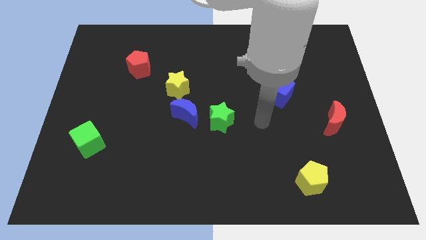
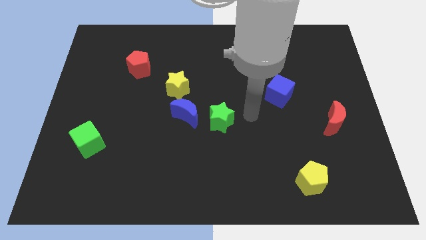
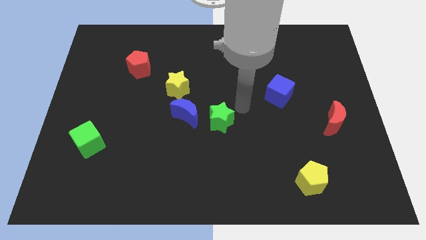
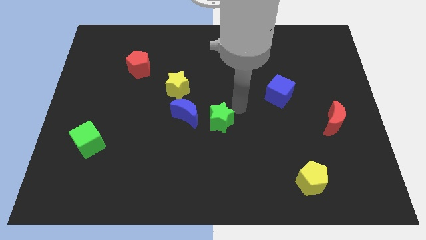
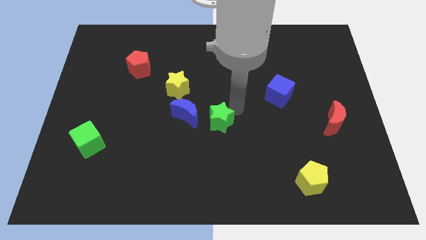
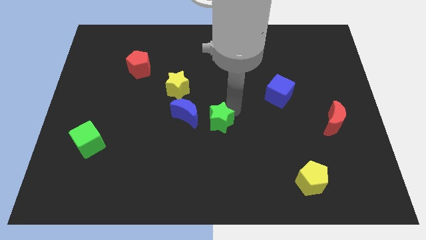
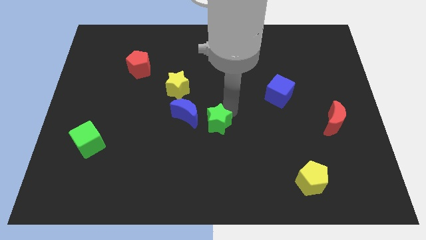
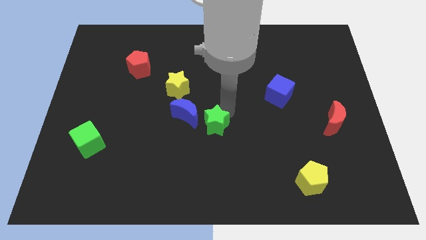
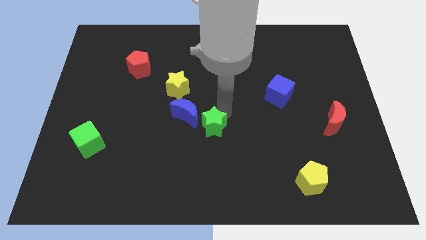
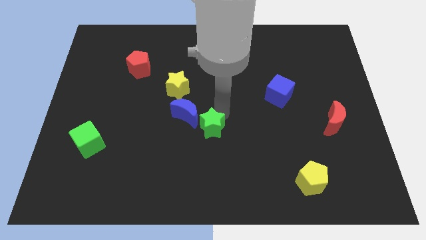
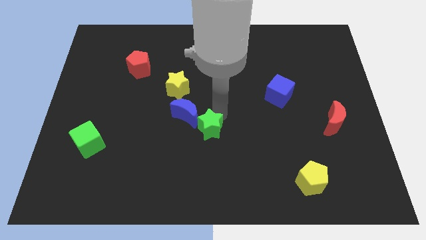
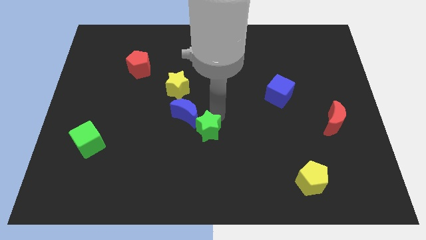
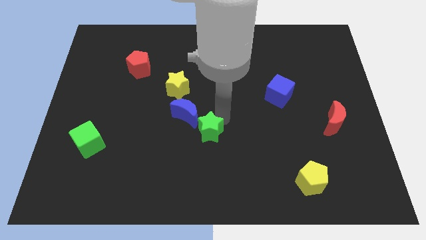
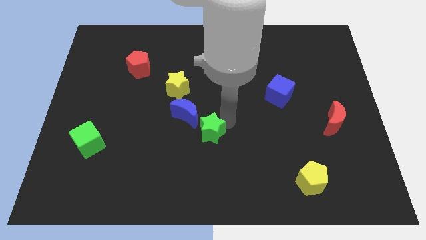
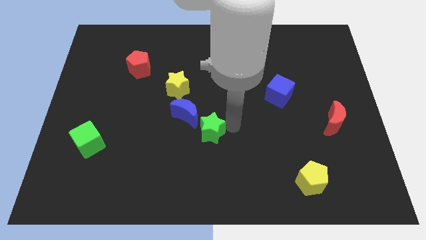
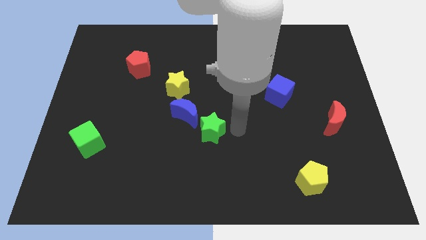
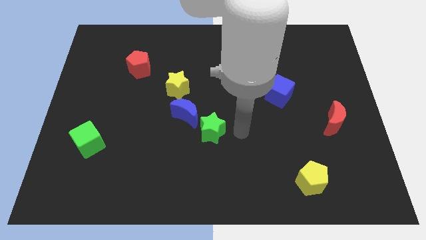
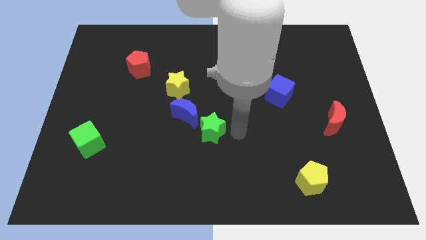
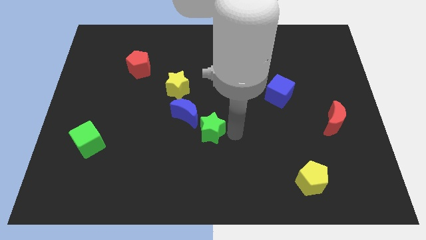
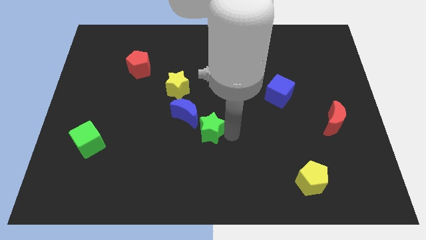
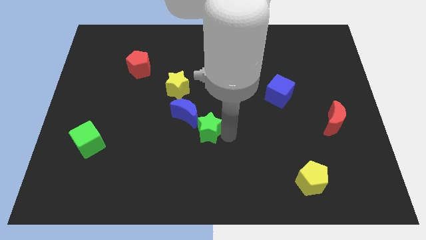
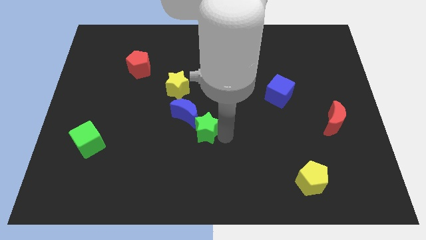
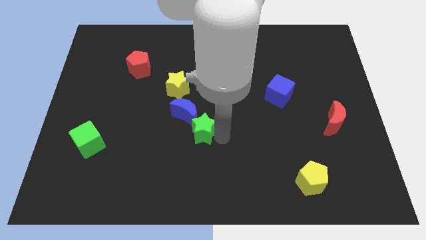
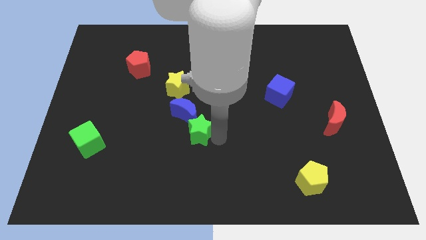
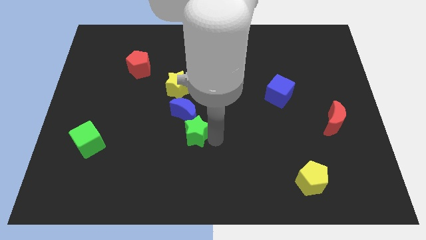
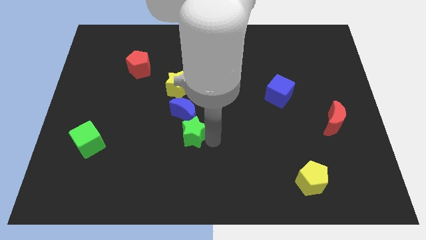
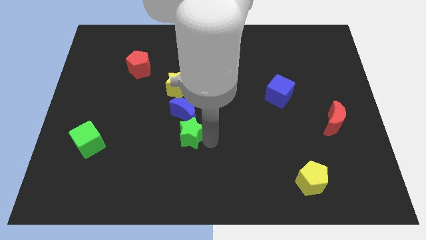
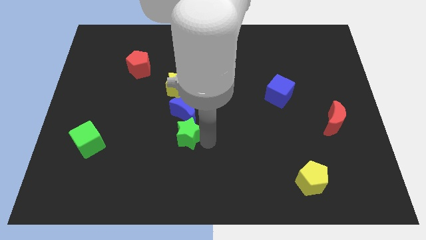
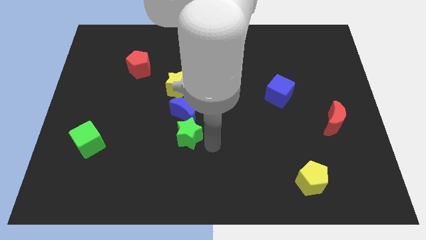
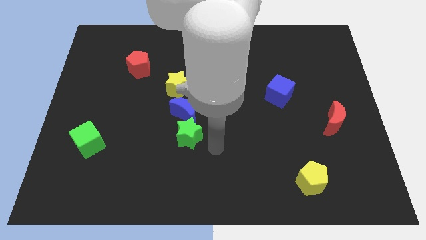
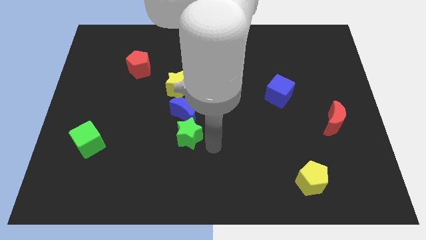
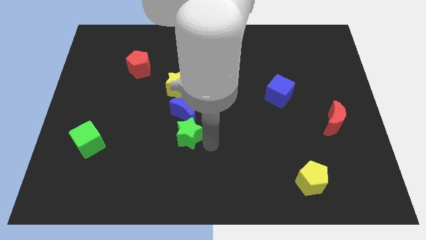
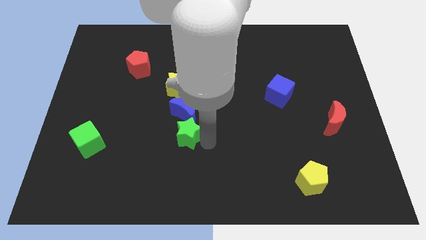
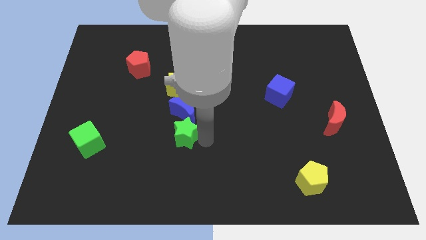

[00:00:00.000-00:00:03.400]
slightly slide the green star to the left

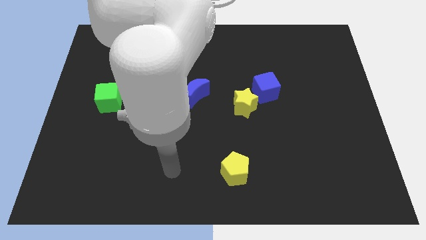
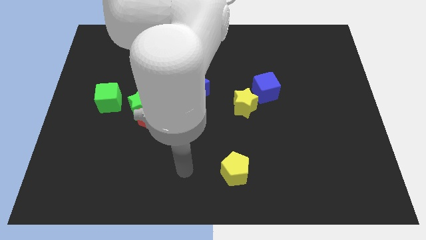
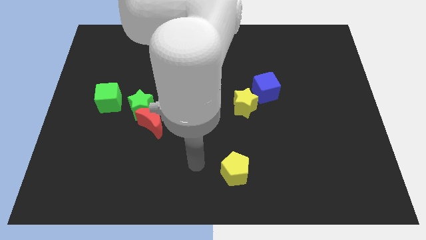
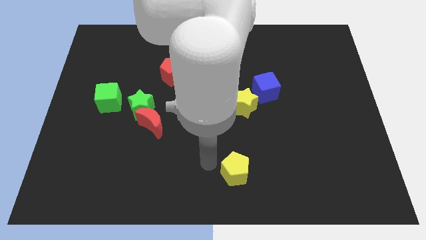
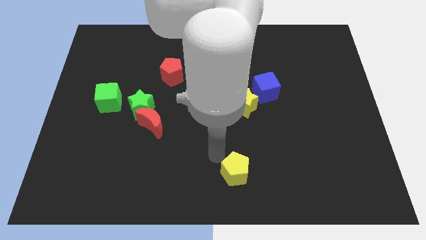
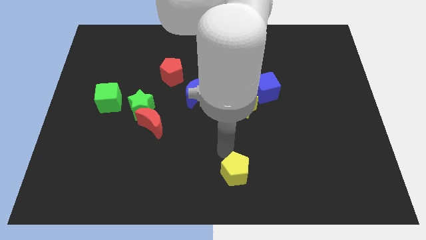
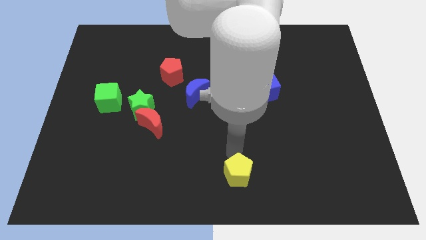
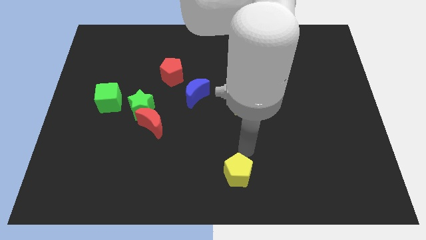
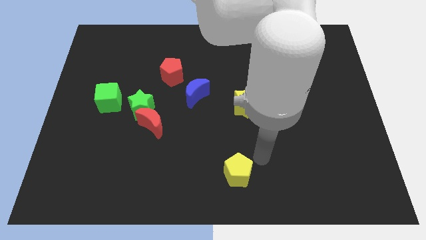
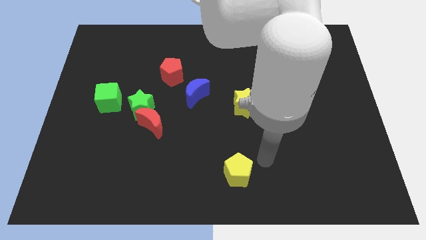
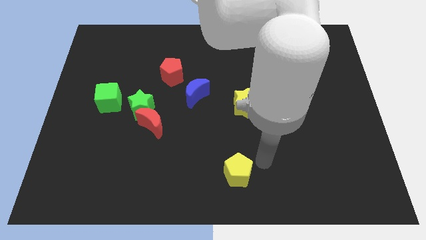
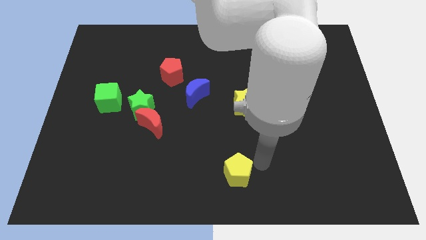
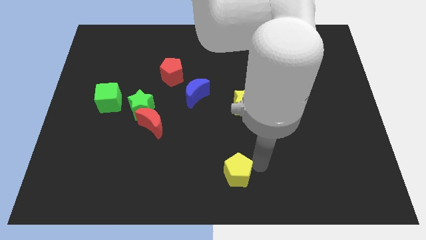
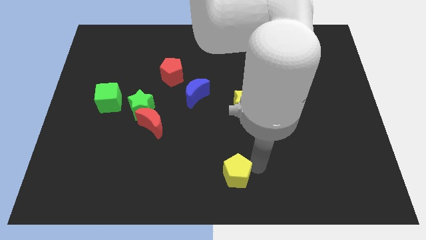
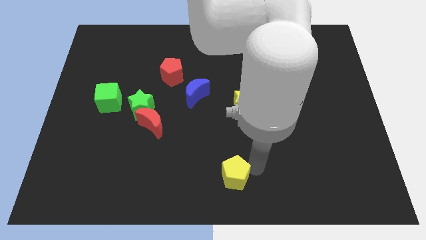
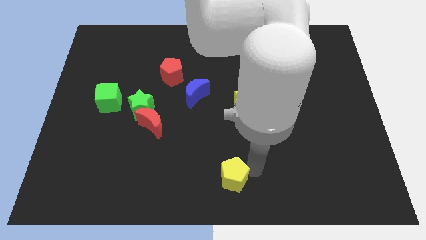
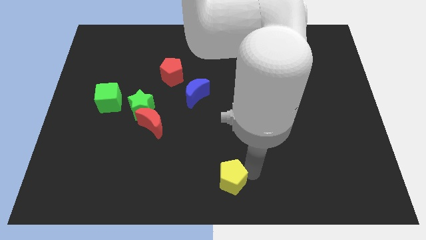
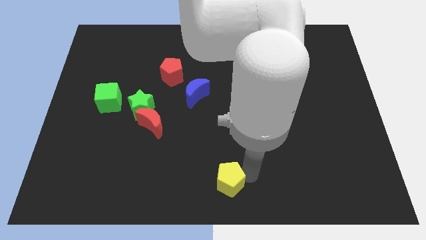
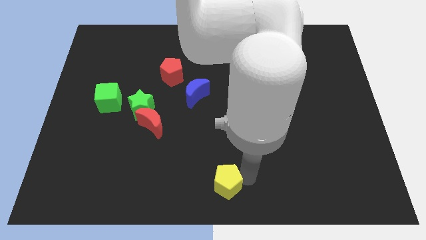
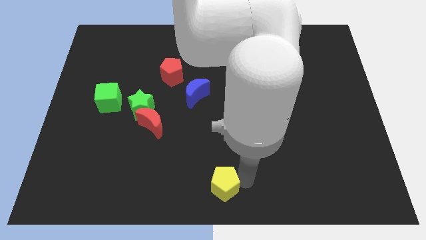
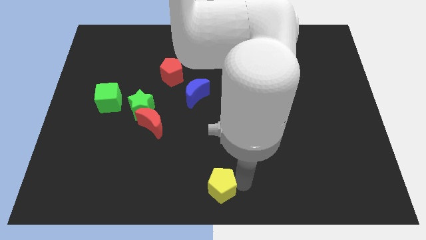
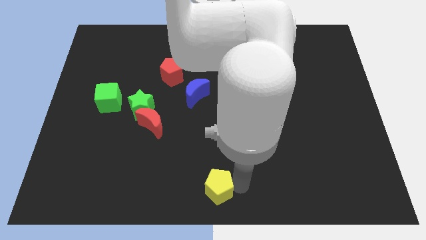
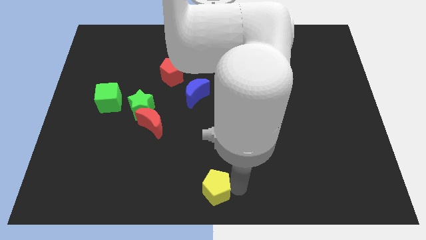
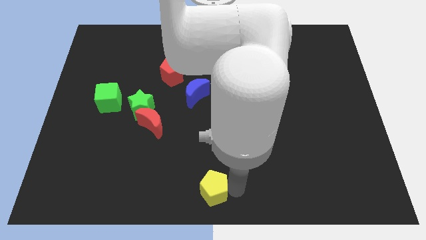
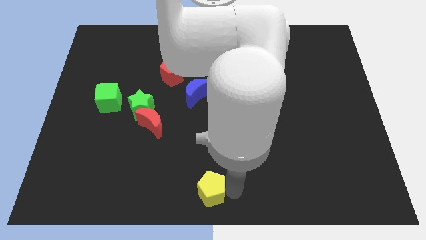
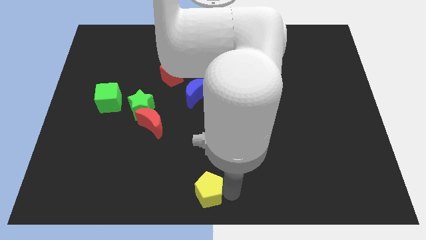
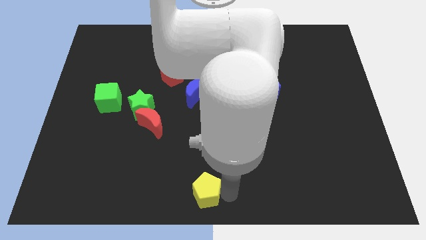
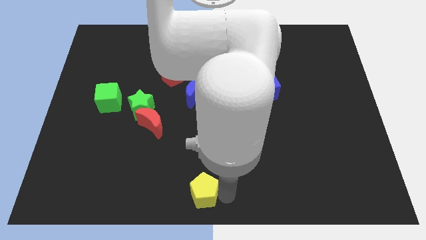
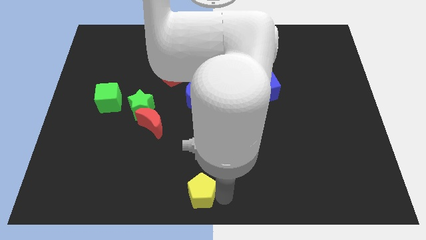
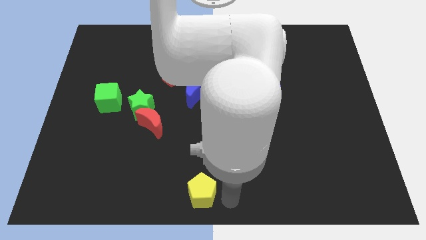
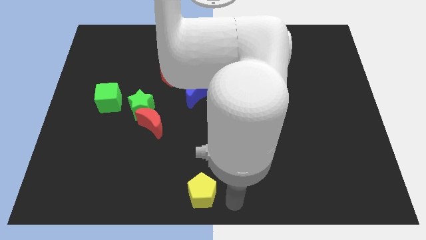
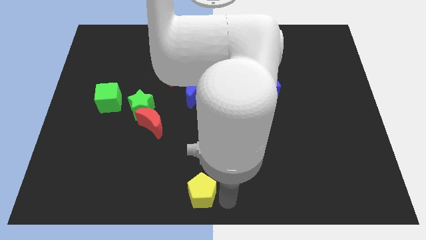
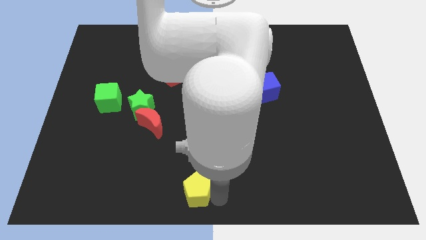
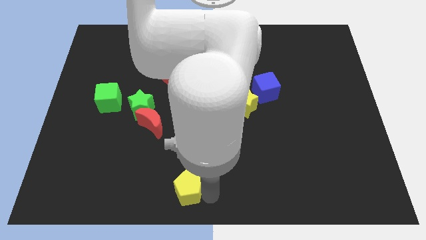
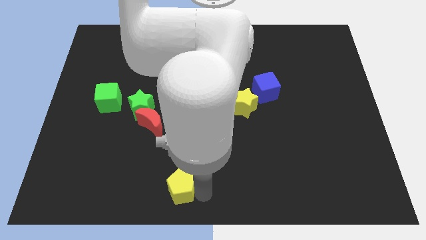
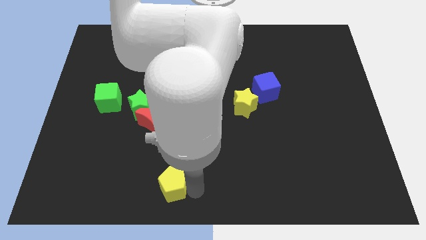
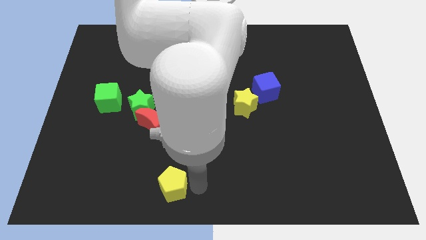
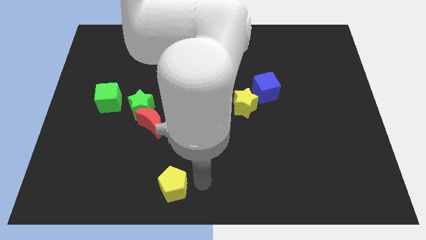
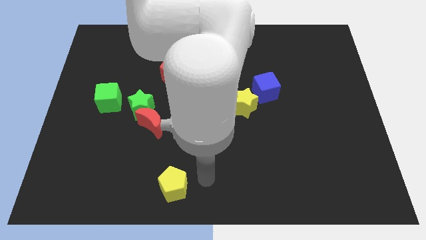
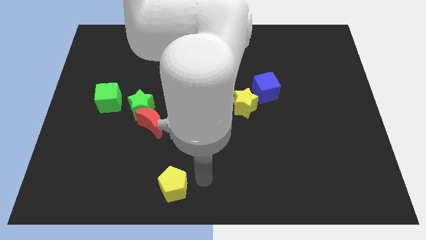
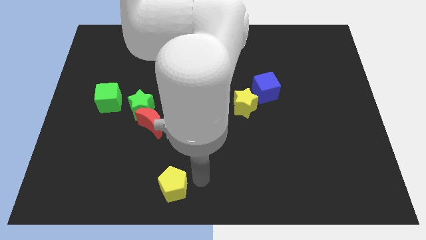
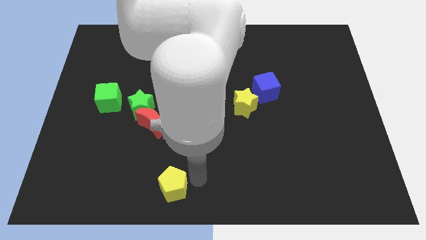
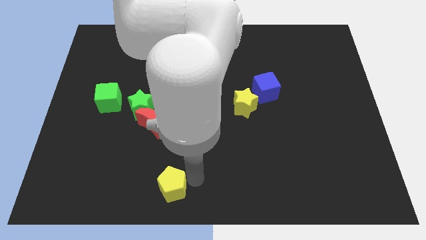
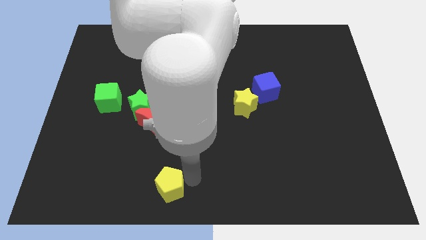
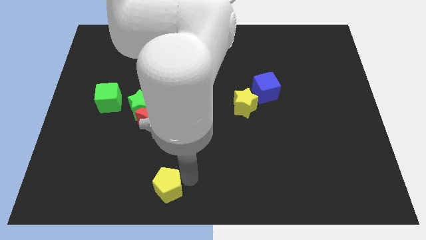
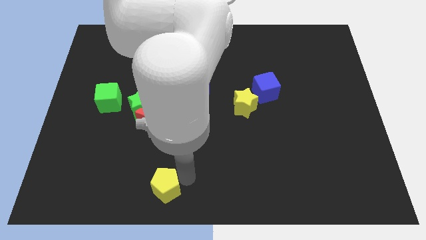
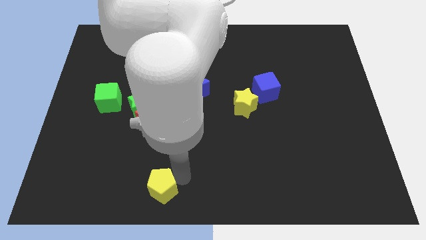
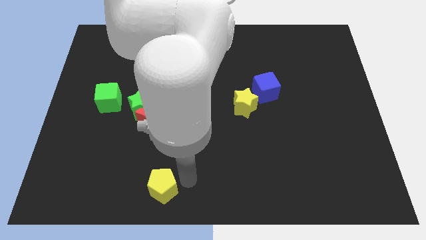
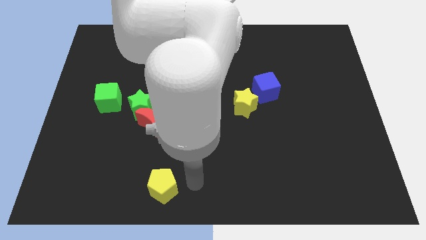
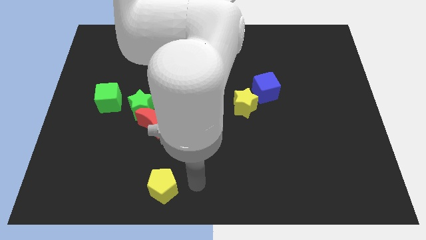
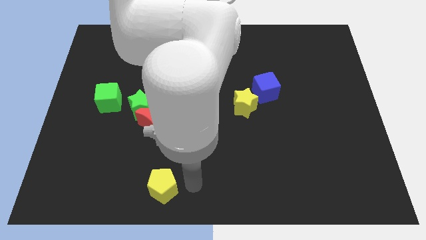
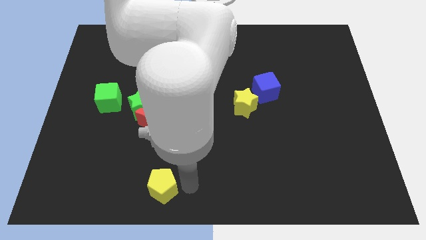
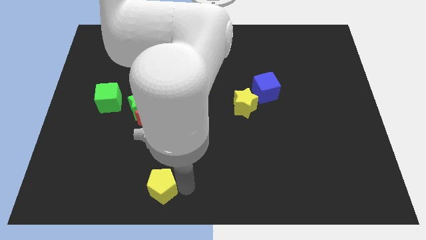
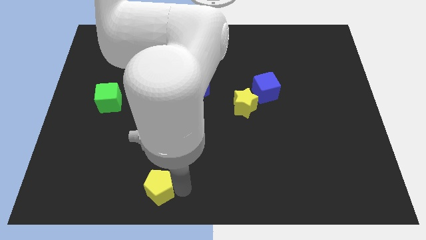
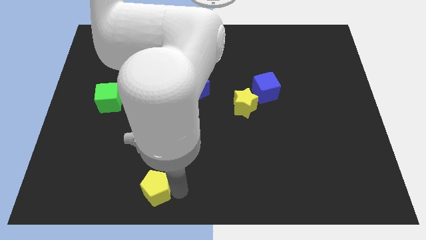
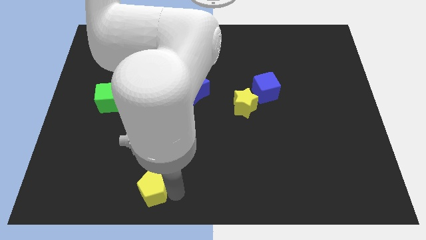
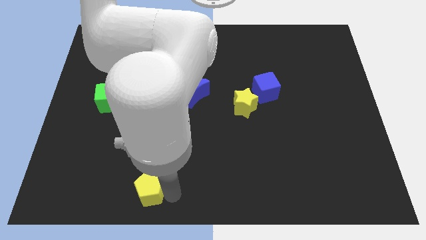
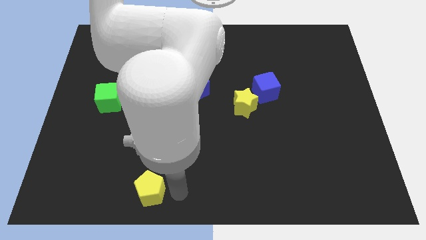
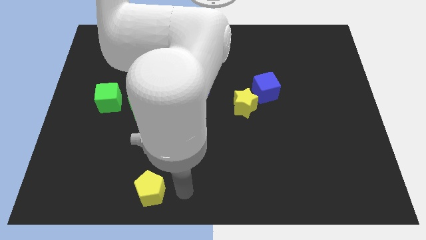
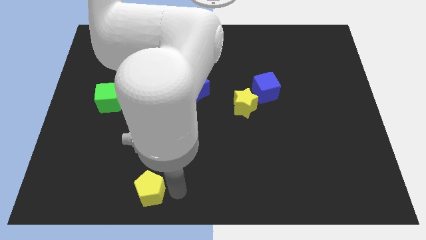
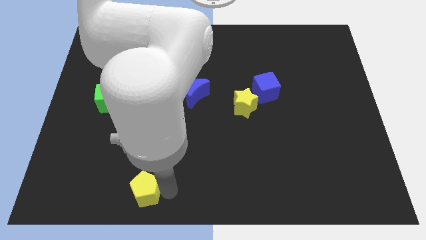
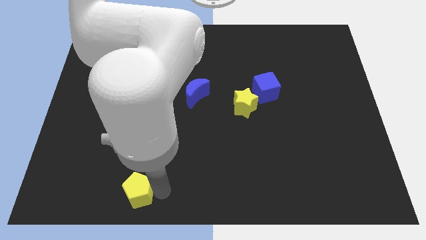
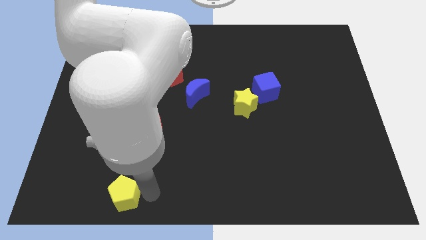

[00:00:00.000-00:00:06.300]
slide the yellow pentagon to the left
